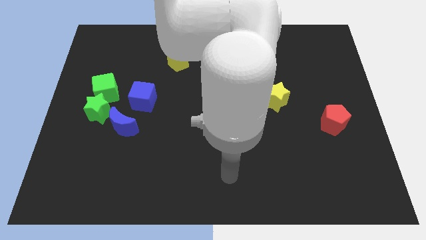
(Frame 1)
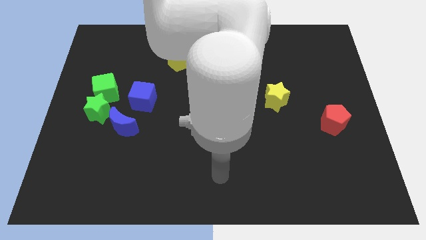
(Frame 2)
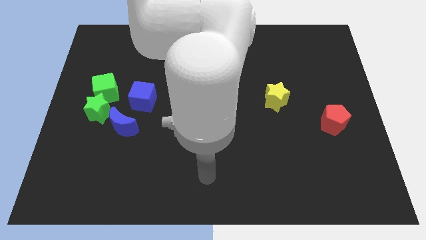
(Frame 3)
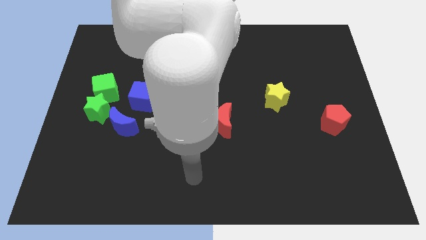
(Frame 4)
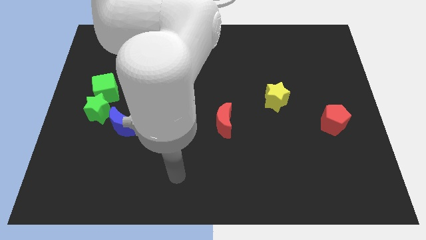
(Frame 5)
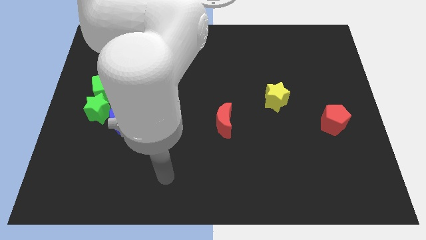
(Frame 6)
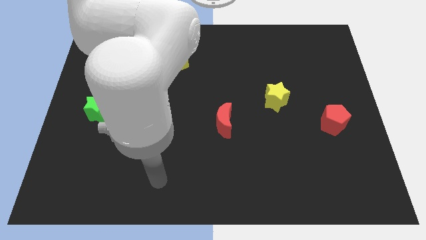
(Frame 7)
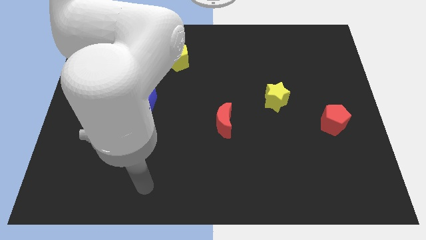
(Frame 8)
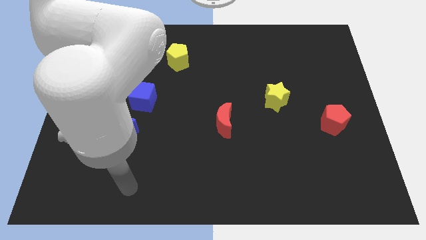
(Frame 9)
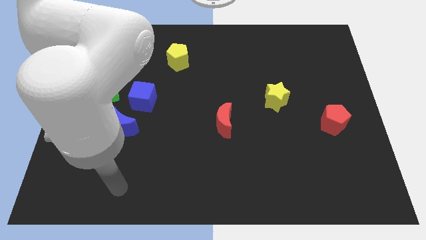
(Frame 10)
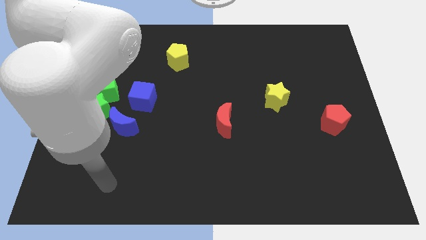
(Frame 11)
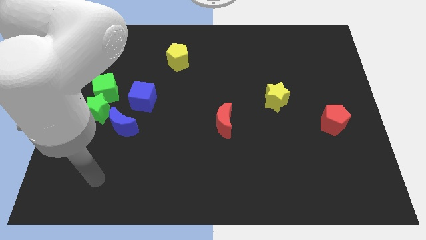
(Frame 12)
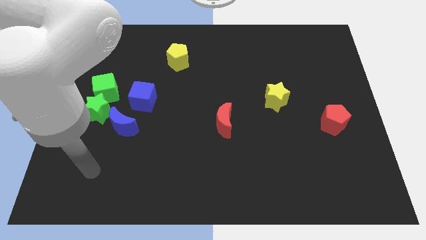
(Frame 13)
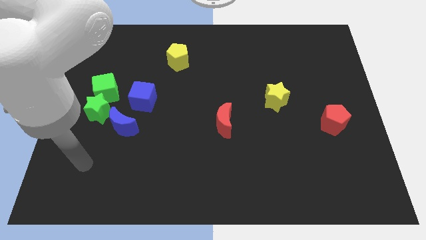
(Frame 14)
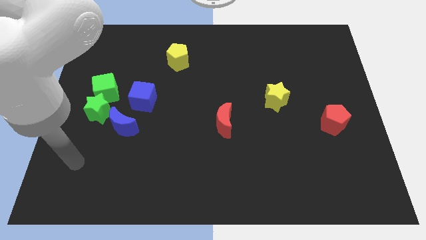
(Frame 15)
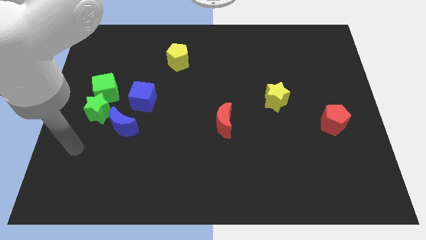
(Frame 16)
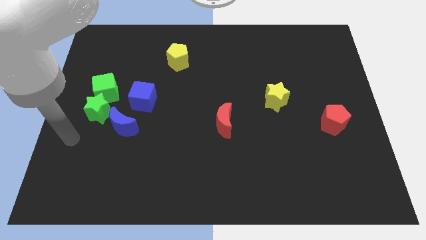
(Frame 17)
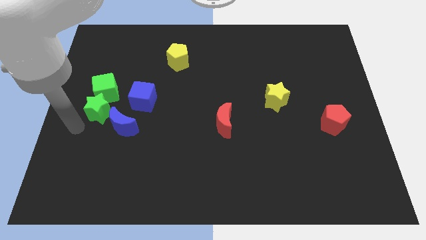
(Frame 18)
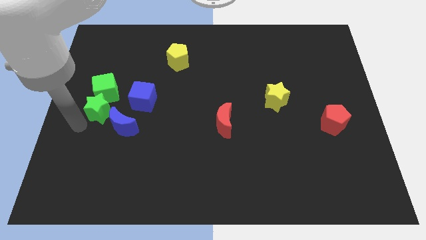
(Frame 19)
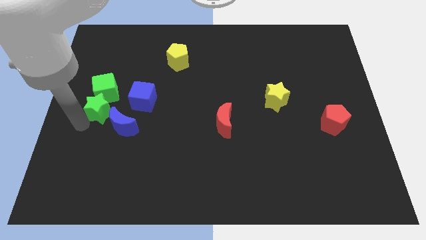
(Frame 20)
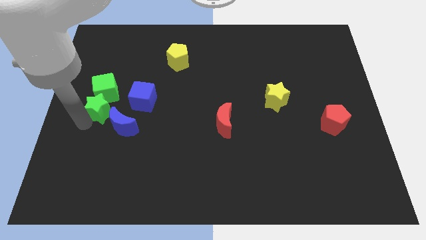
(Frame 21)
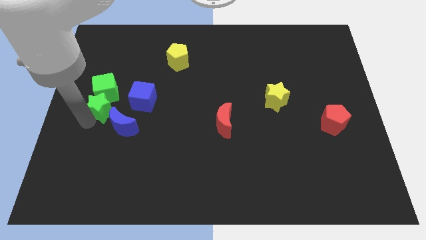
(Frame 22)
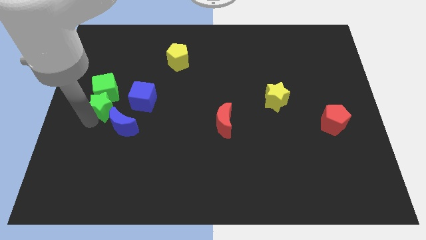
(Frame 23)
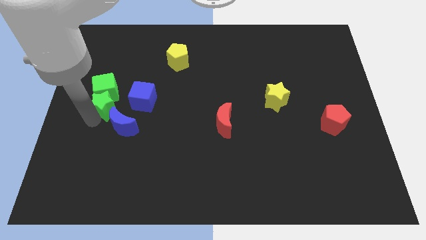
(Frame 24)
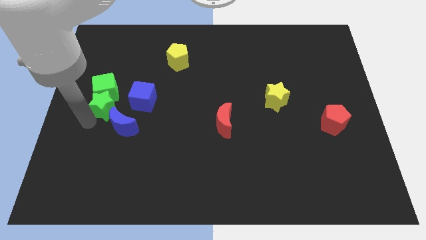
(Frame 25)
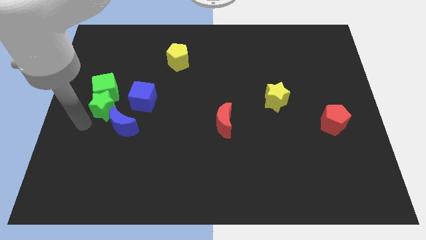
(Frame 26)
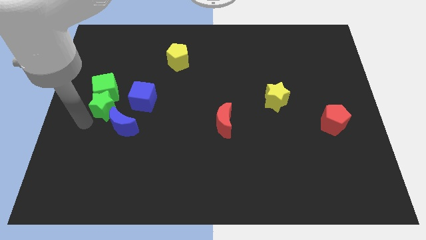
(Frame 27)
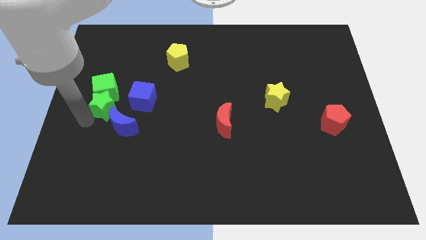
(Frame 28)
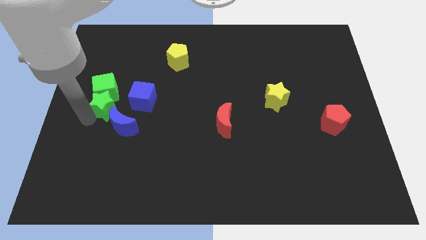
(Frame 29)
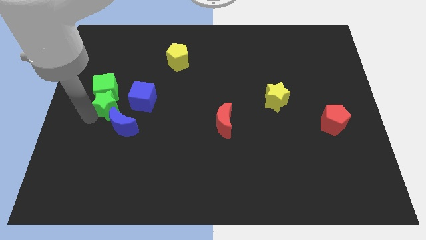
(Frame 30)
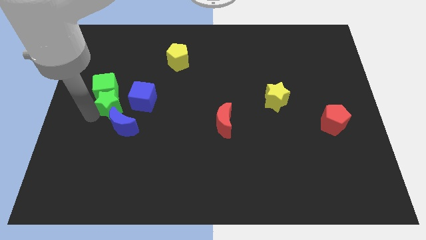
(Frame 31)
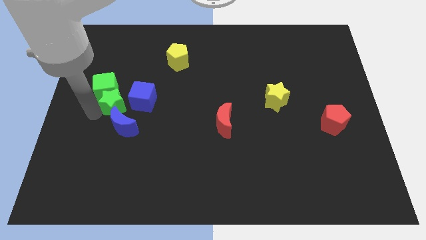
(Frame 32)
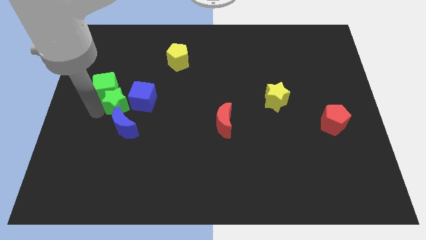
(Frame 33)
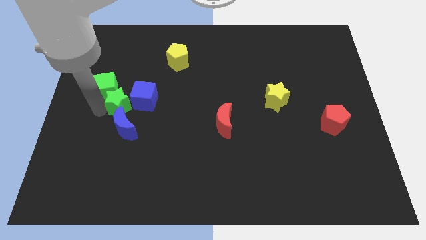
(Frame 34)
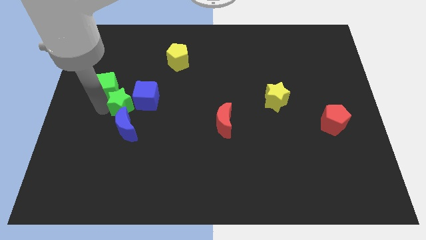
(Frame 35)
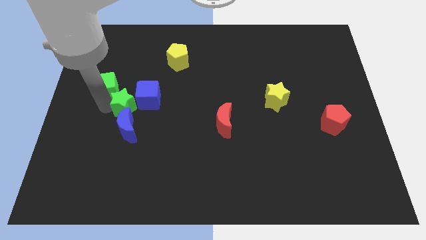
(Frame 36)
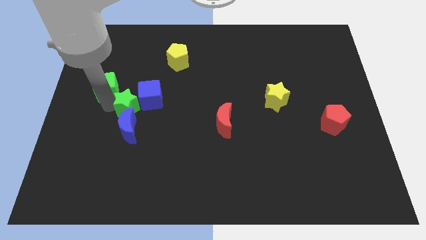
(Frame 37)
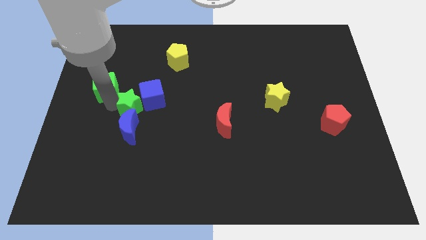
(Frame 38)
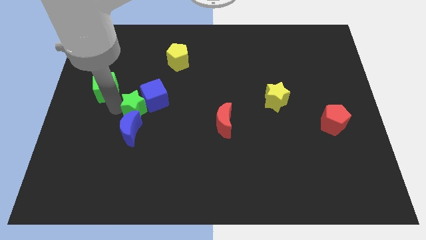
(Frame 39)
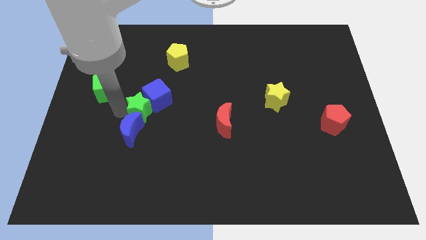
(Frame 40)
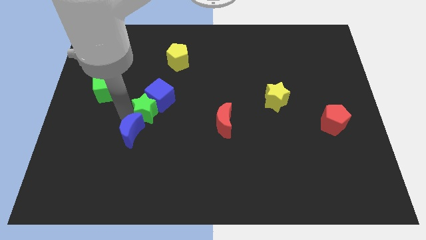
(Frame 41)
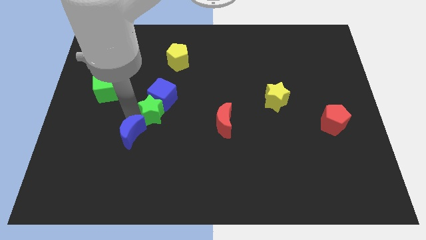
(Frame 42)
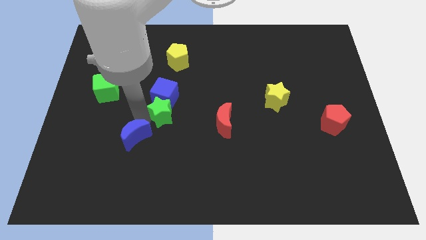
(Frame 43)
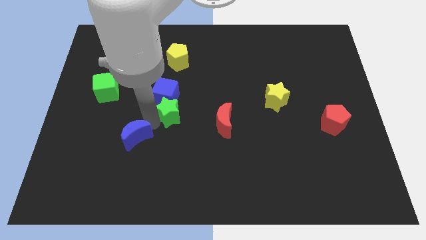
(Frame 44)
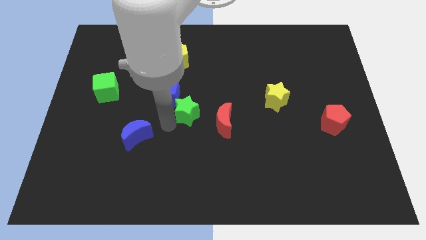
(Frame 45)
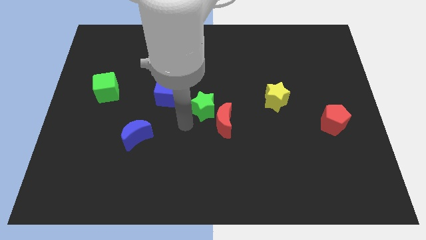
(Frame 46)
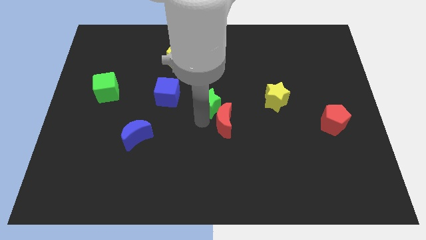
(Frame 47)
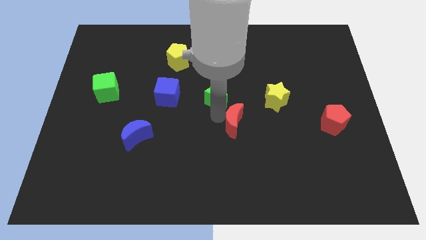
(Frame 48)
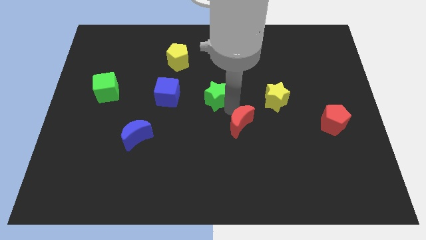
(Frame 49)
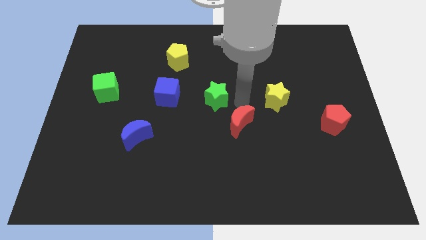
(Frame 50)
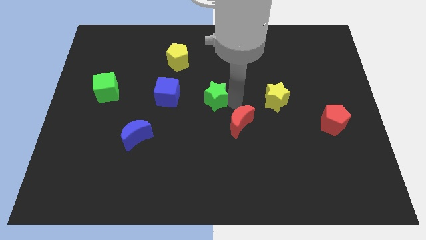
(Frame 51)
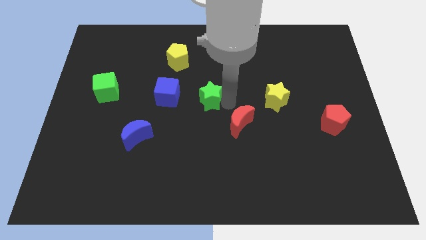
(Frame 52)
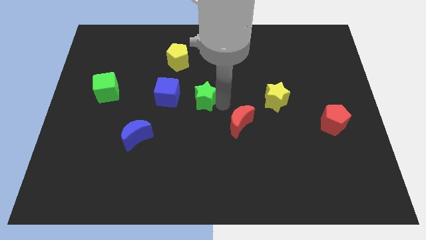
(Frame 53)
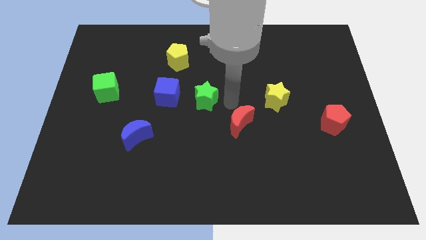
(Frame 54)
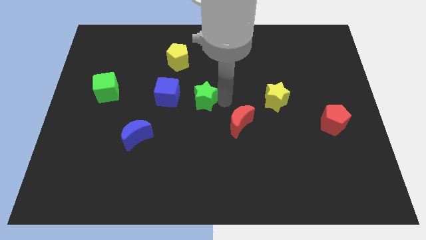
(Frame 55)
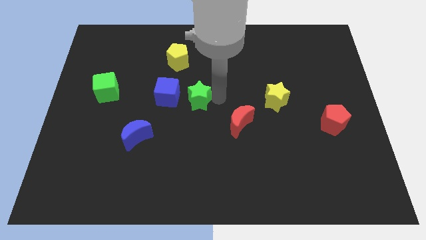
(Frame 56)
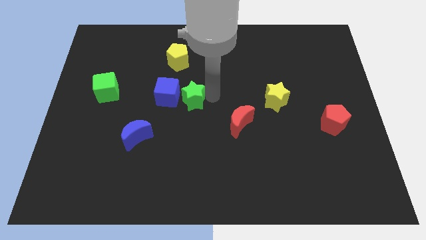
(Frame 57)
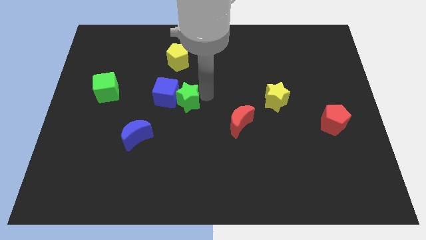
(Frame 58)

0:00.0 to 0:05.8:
slide the green star to the top right side of the blue cube
